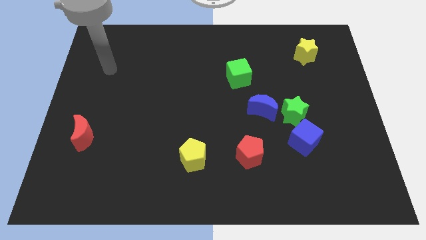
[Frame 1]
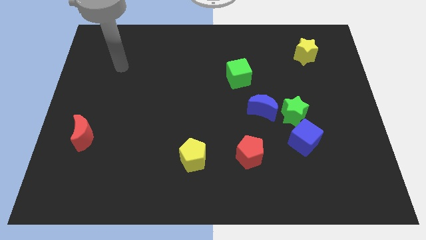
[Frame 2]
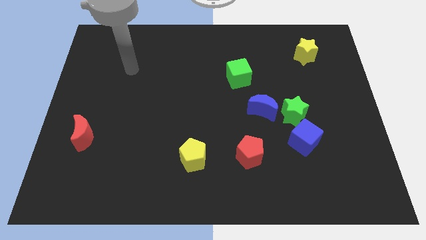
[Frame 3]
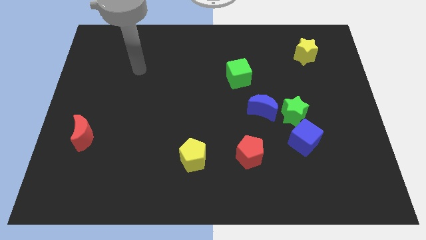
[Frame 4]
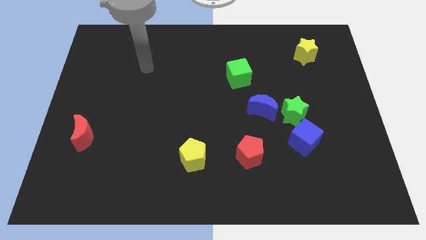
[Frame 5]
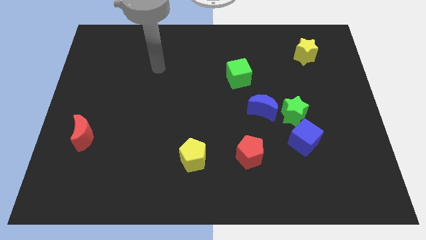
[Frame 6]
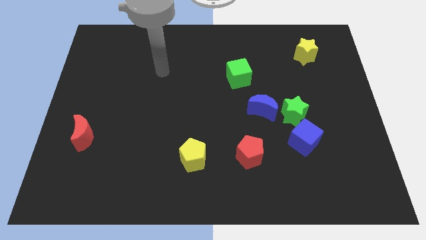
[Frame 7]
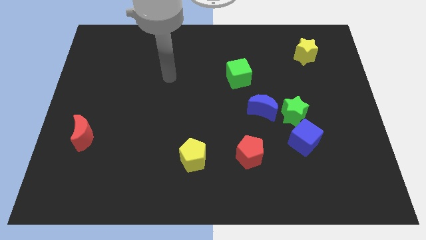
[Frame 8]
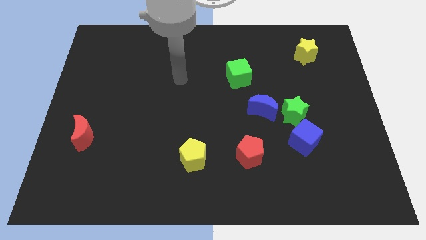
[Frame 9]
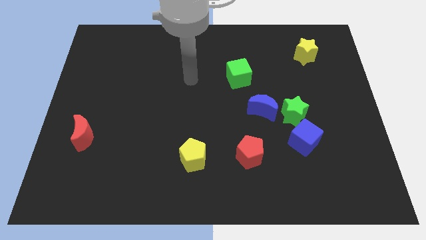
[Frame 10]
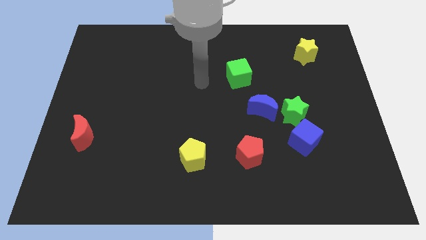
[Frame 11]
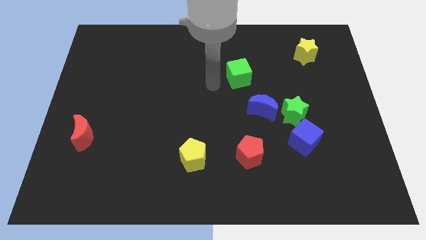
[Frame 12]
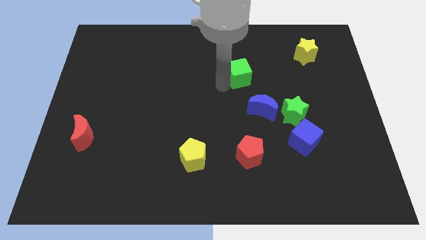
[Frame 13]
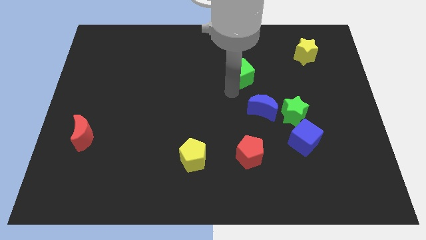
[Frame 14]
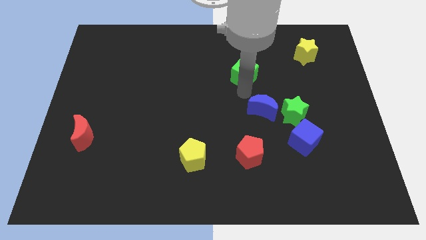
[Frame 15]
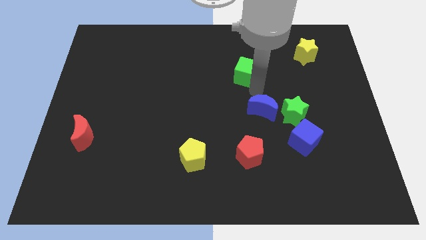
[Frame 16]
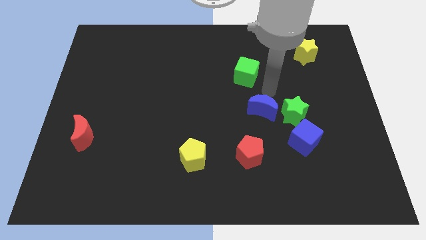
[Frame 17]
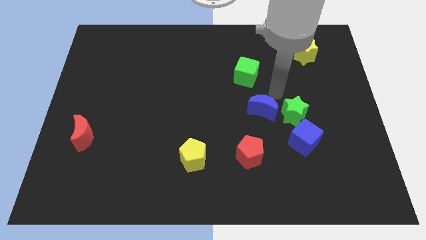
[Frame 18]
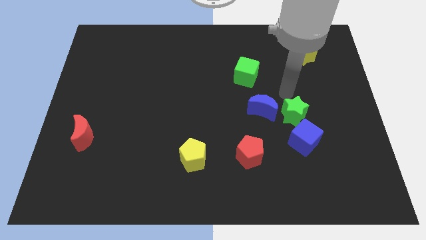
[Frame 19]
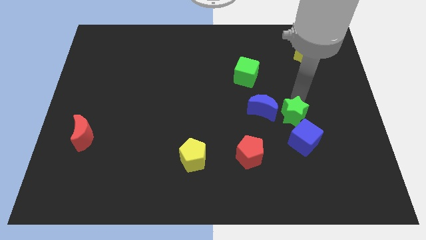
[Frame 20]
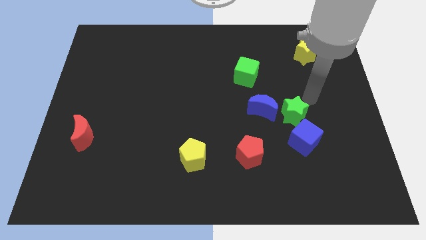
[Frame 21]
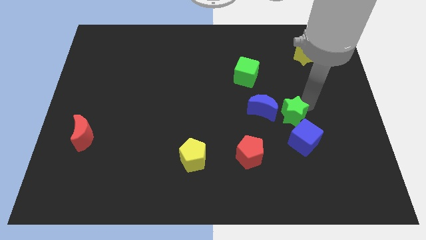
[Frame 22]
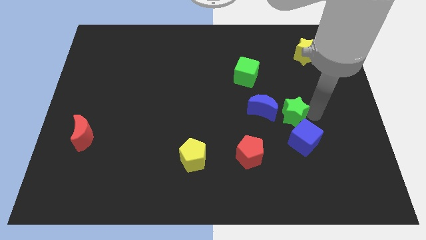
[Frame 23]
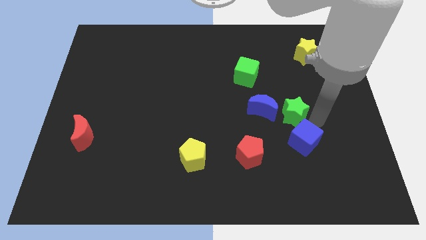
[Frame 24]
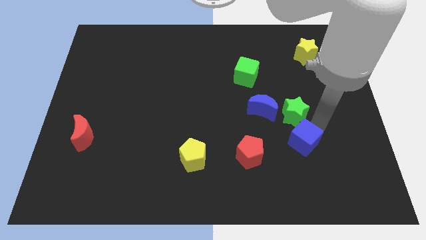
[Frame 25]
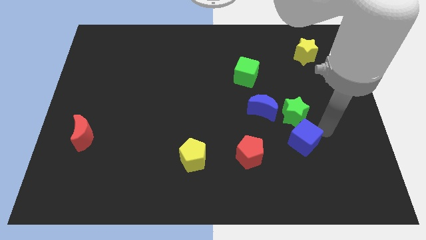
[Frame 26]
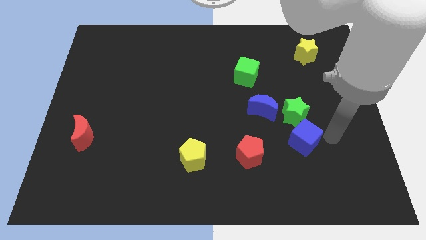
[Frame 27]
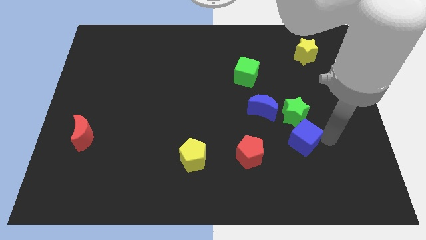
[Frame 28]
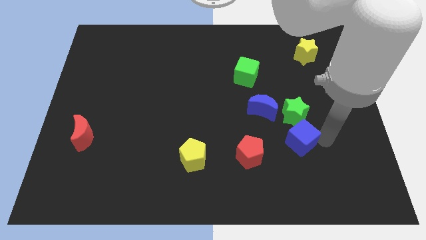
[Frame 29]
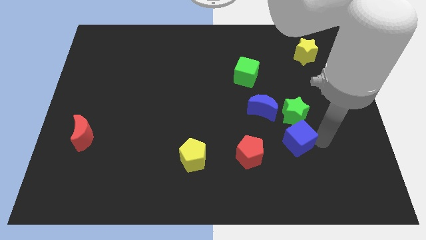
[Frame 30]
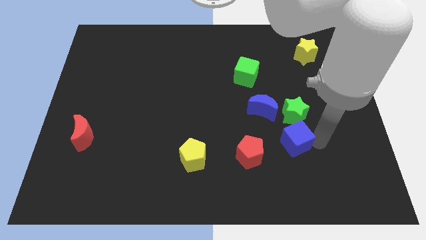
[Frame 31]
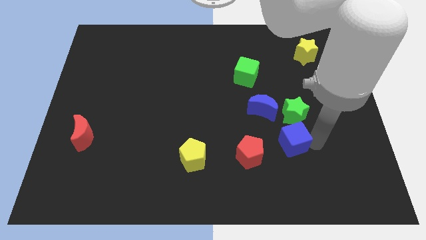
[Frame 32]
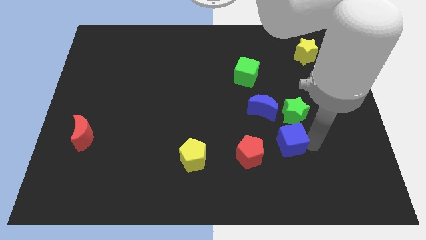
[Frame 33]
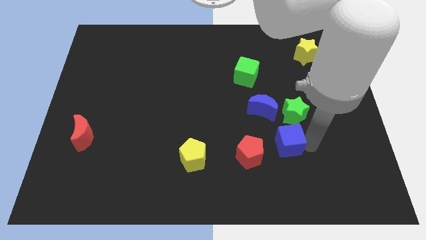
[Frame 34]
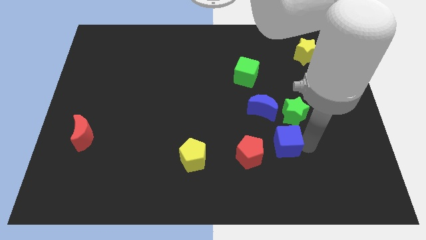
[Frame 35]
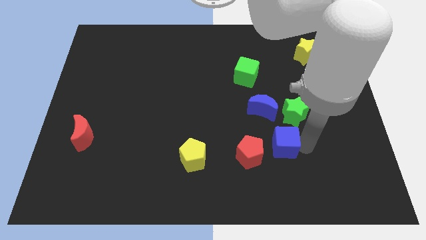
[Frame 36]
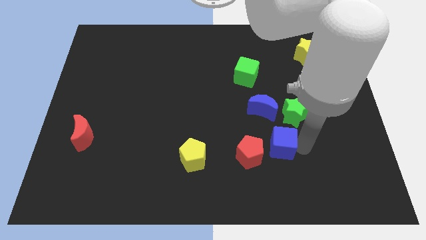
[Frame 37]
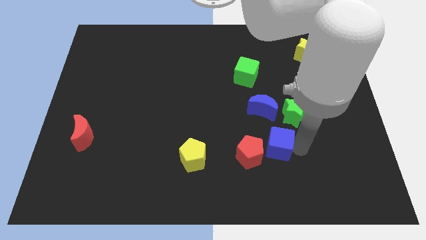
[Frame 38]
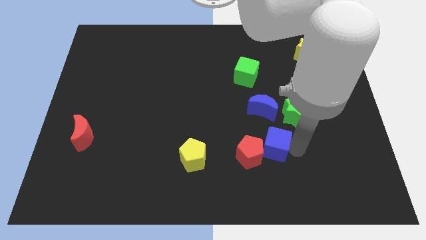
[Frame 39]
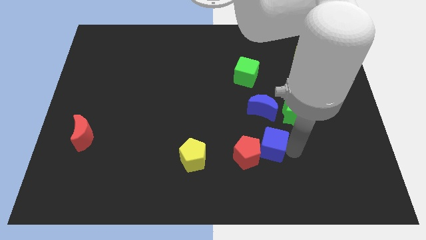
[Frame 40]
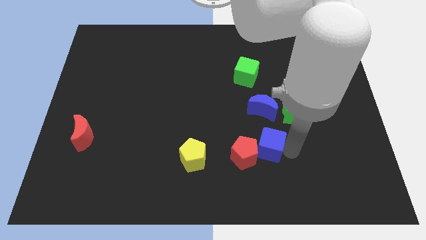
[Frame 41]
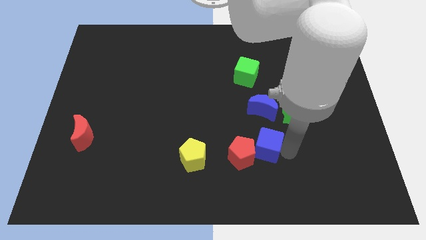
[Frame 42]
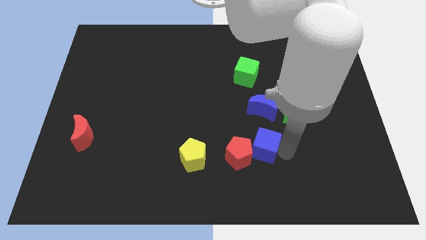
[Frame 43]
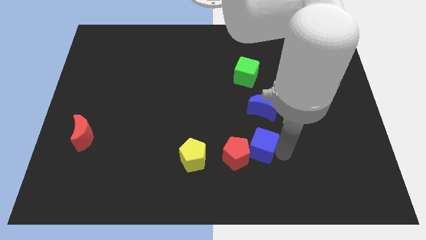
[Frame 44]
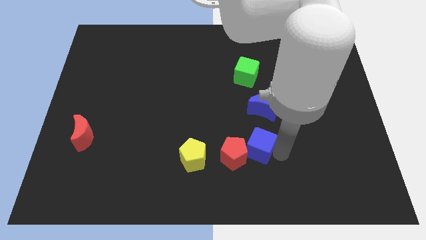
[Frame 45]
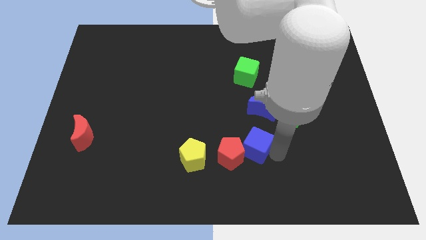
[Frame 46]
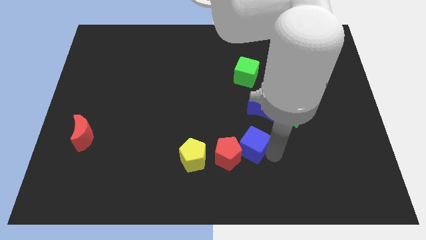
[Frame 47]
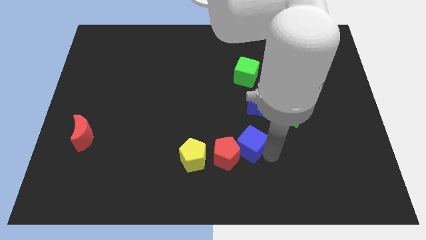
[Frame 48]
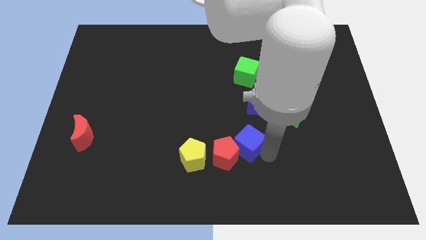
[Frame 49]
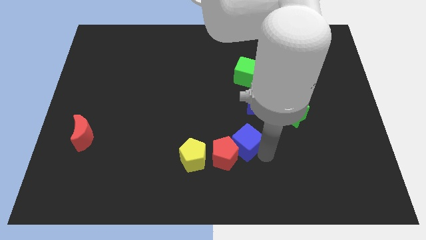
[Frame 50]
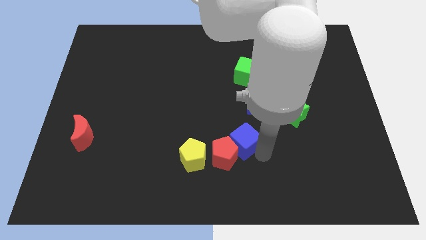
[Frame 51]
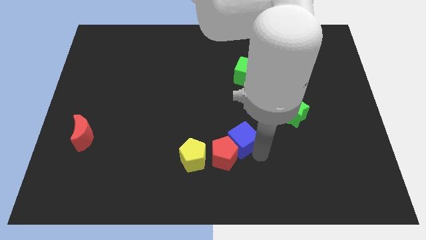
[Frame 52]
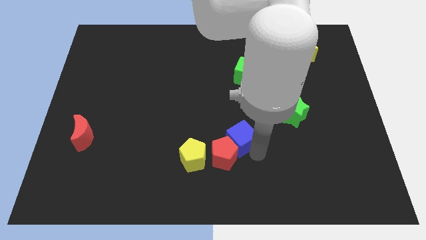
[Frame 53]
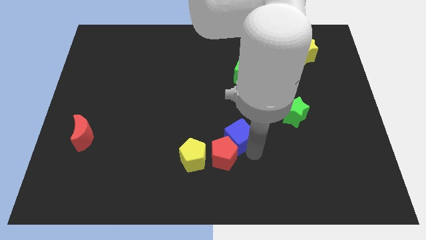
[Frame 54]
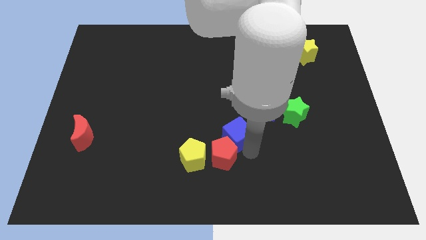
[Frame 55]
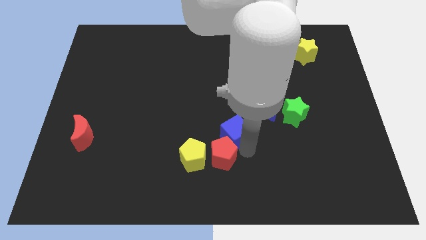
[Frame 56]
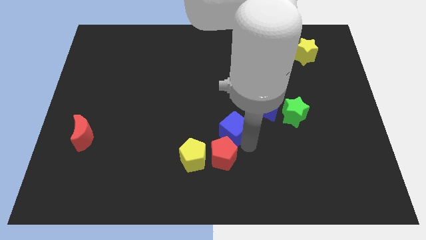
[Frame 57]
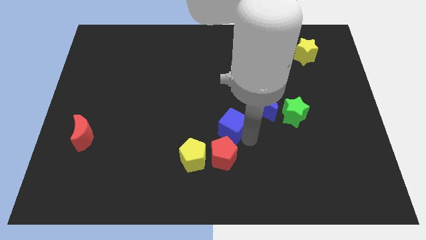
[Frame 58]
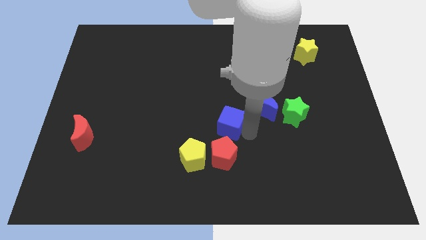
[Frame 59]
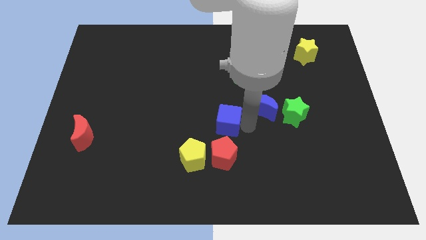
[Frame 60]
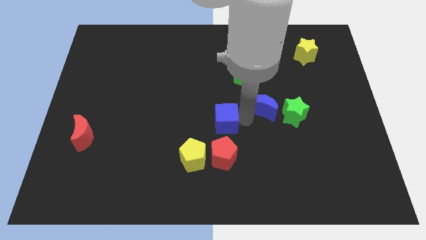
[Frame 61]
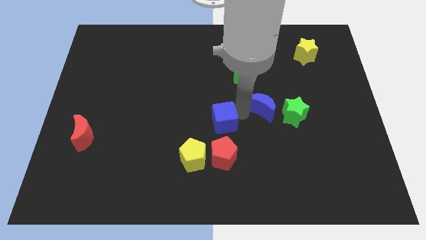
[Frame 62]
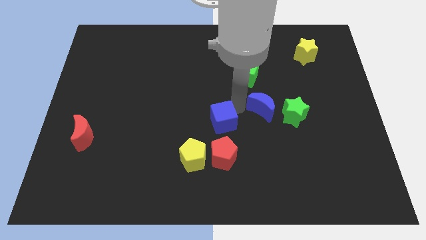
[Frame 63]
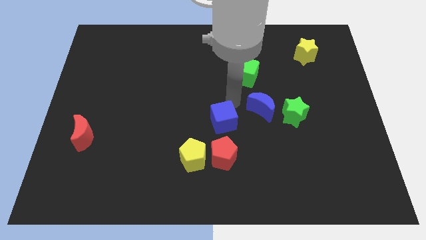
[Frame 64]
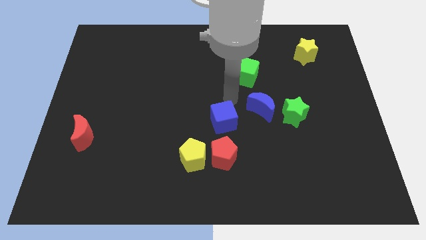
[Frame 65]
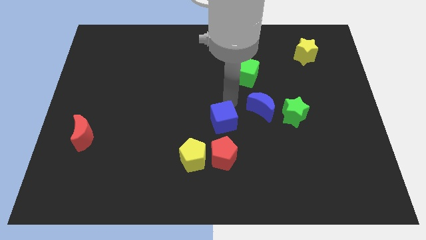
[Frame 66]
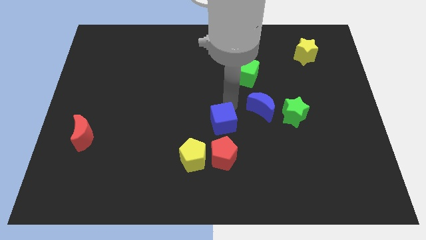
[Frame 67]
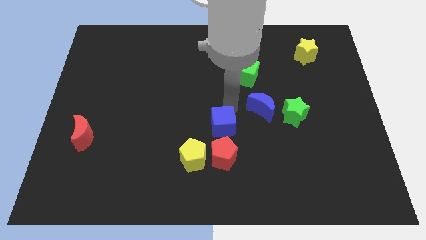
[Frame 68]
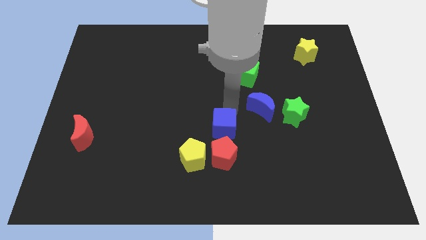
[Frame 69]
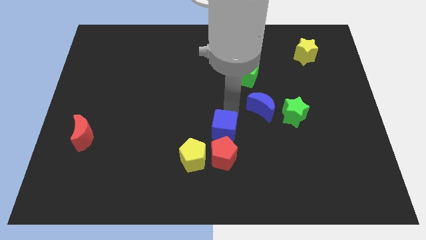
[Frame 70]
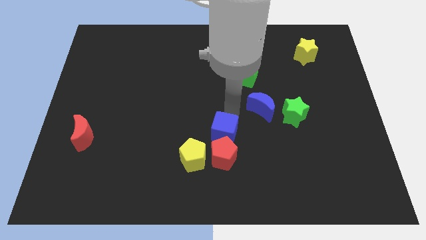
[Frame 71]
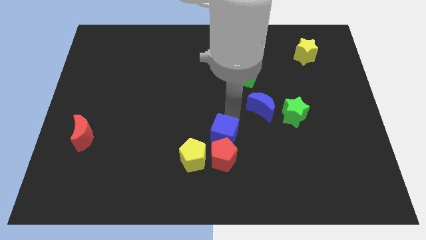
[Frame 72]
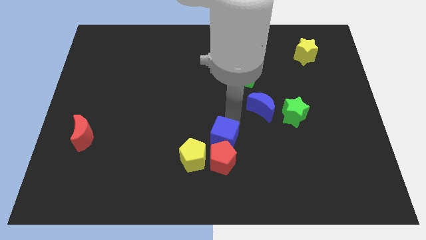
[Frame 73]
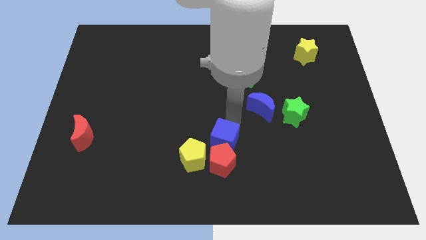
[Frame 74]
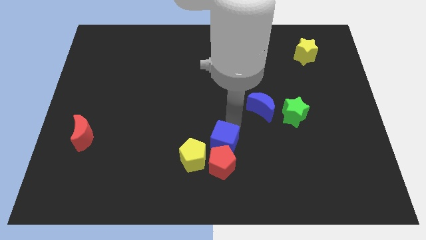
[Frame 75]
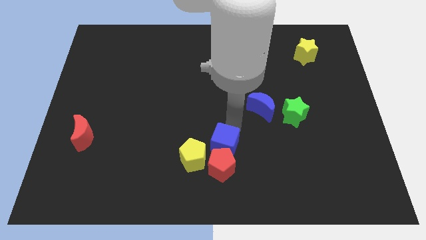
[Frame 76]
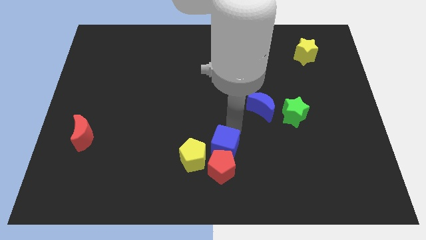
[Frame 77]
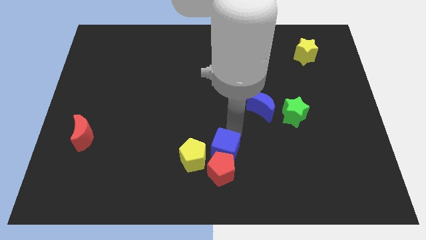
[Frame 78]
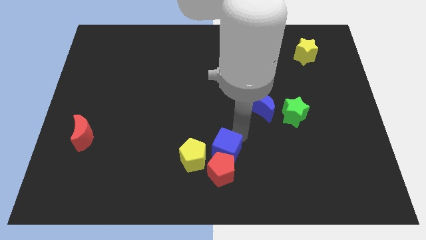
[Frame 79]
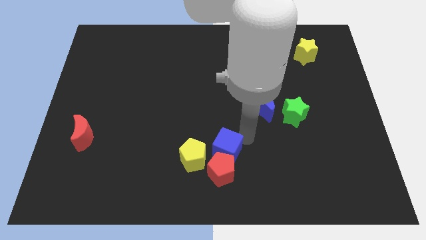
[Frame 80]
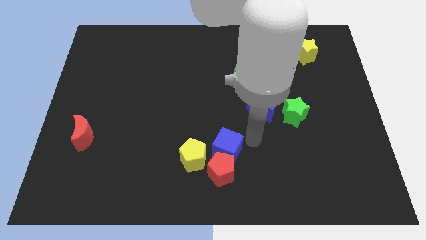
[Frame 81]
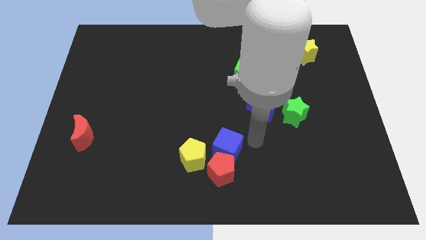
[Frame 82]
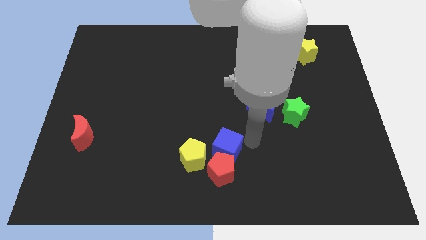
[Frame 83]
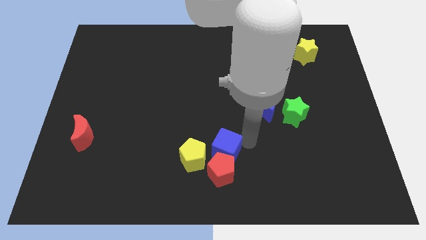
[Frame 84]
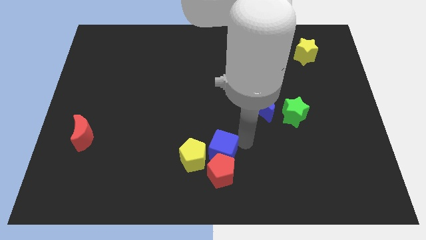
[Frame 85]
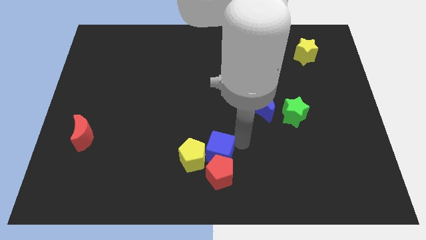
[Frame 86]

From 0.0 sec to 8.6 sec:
move the blue cube towards the yellow pentagon
